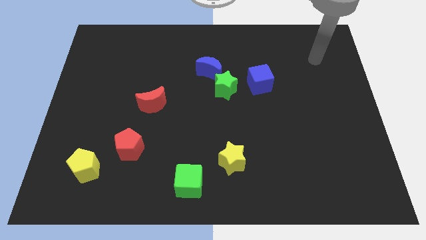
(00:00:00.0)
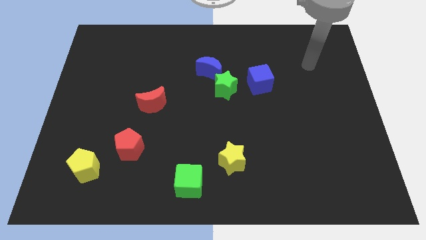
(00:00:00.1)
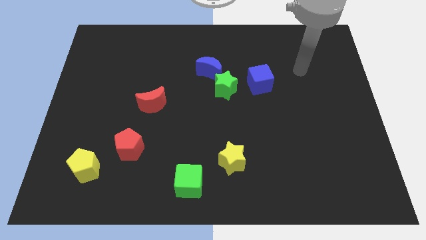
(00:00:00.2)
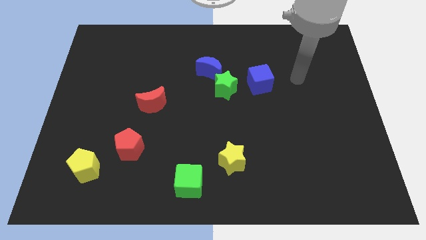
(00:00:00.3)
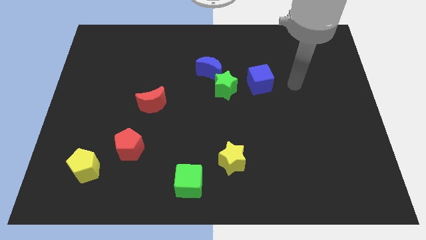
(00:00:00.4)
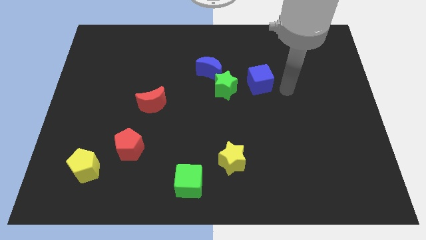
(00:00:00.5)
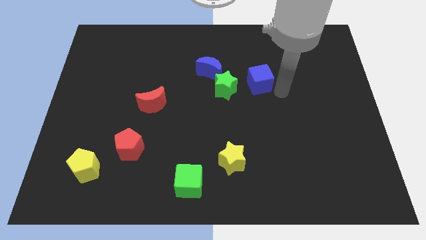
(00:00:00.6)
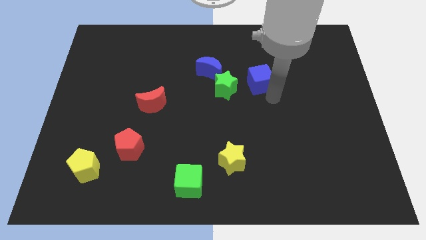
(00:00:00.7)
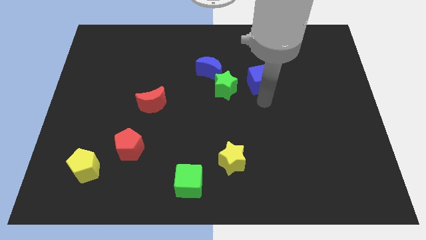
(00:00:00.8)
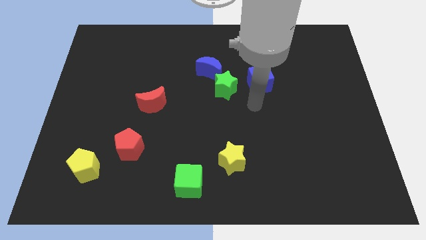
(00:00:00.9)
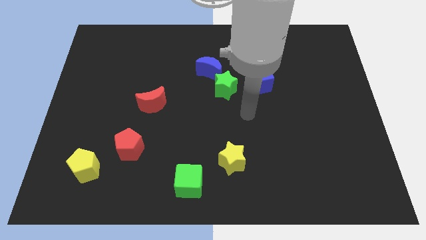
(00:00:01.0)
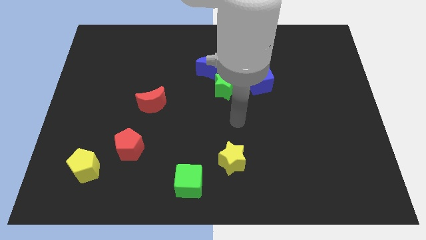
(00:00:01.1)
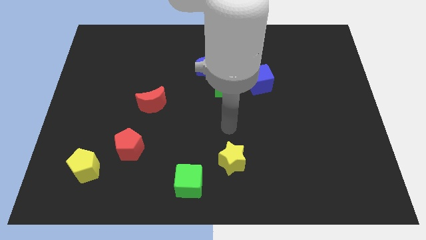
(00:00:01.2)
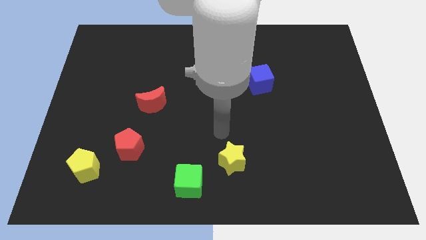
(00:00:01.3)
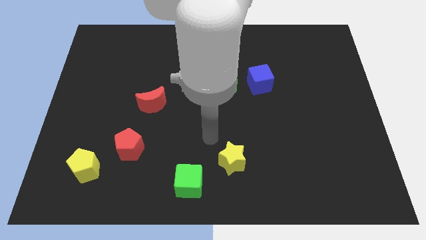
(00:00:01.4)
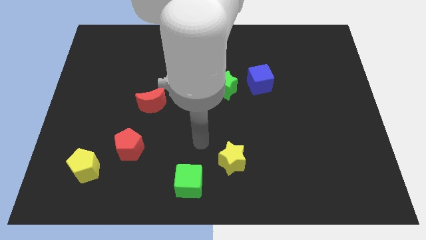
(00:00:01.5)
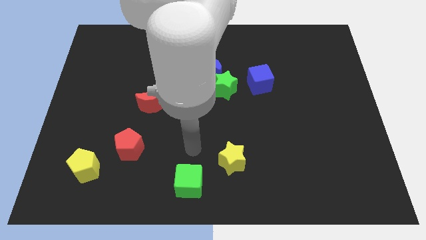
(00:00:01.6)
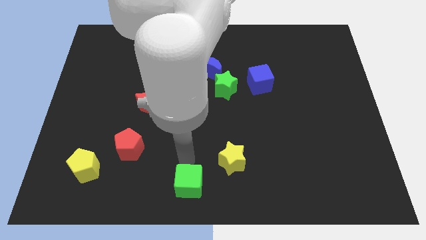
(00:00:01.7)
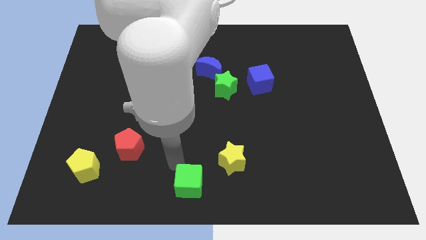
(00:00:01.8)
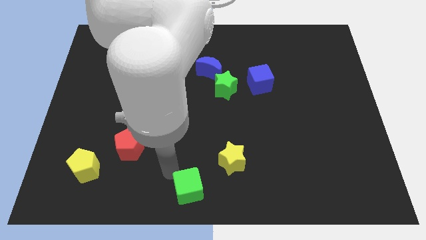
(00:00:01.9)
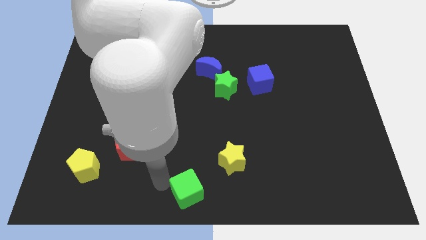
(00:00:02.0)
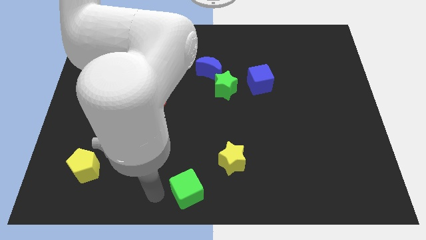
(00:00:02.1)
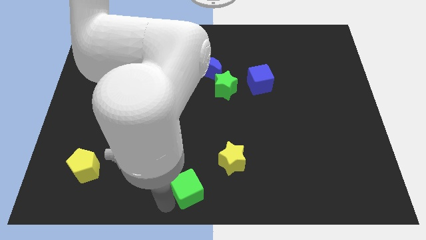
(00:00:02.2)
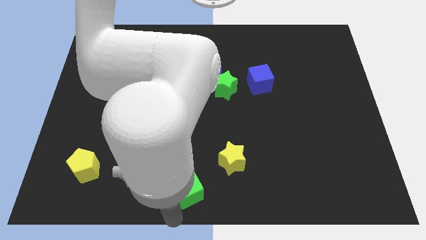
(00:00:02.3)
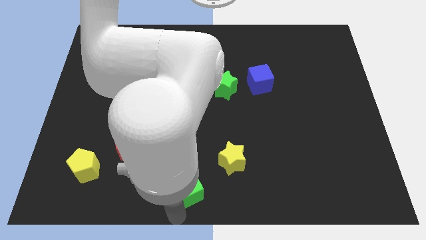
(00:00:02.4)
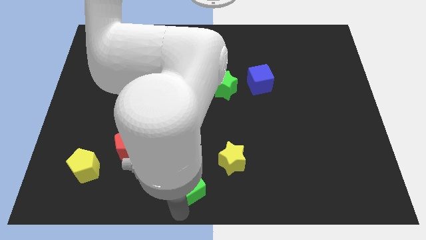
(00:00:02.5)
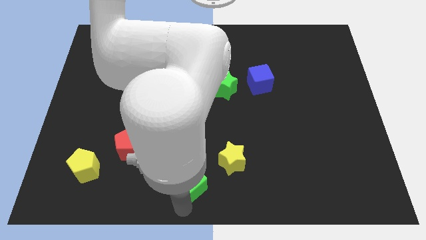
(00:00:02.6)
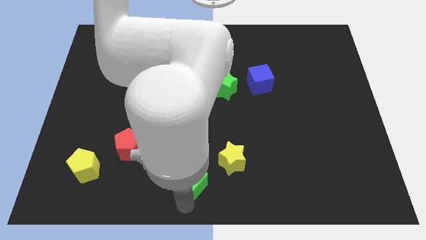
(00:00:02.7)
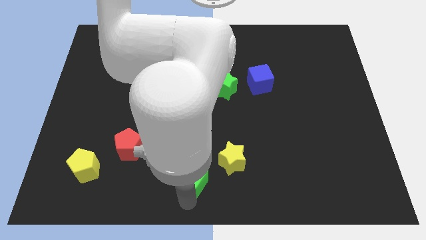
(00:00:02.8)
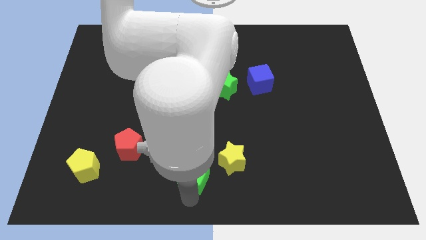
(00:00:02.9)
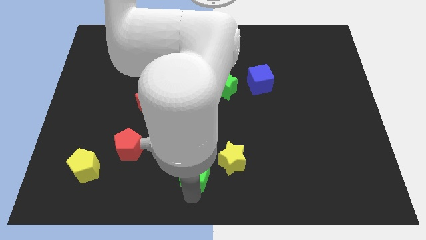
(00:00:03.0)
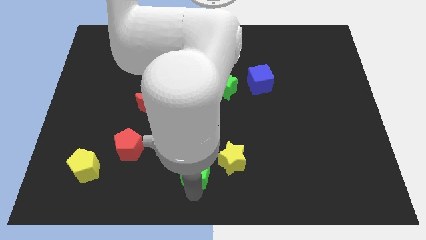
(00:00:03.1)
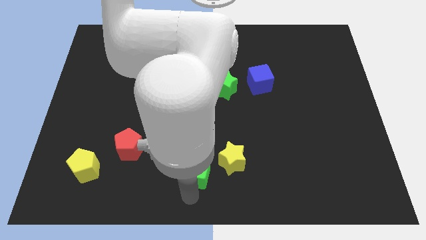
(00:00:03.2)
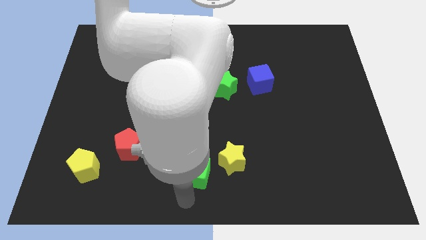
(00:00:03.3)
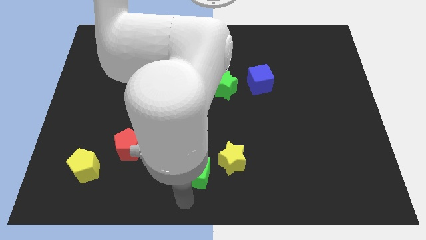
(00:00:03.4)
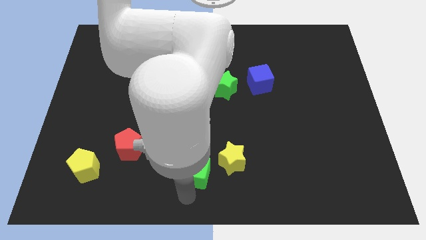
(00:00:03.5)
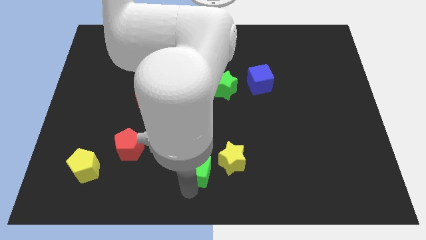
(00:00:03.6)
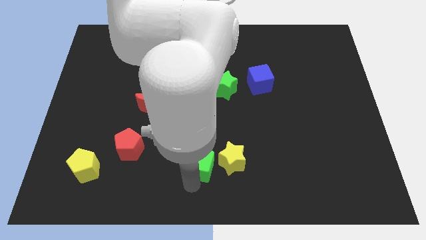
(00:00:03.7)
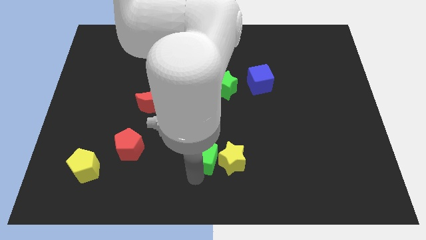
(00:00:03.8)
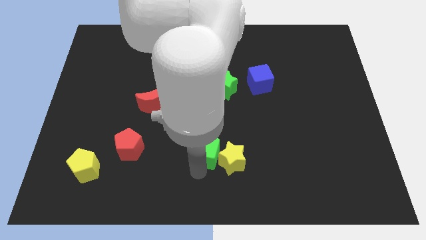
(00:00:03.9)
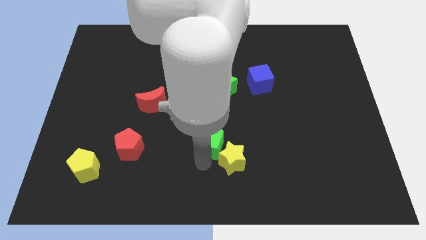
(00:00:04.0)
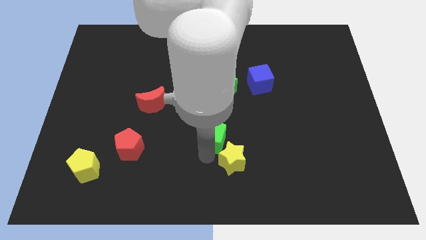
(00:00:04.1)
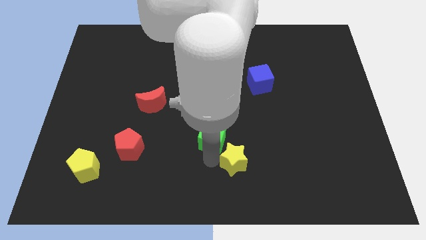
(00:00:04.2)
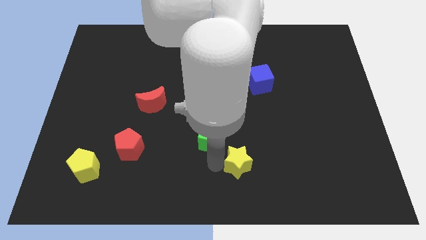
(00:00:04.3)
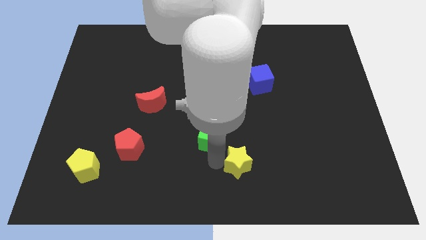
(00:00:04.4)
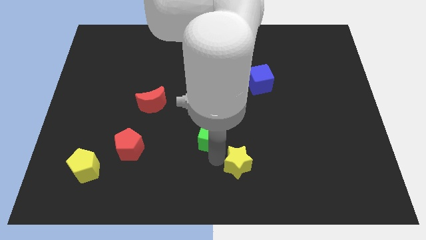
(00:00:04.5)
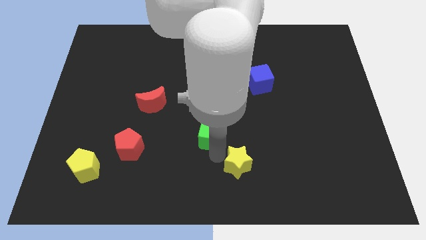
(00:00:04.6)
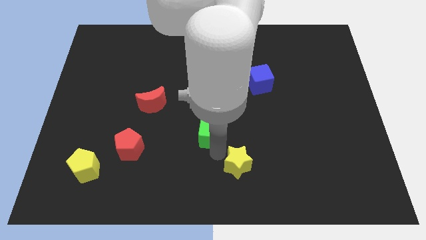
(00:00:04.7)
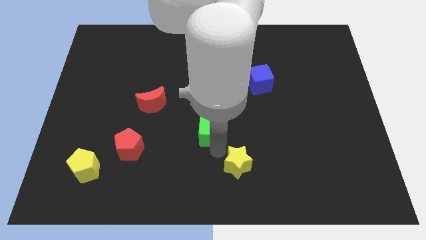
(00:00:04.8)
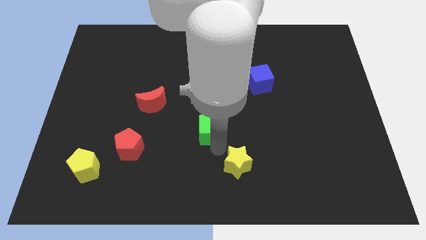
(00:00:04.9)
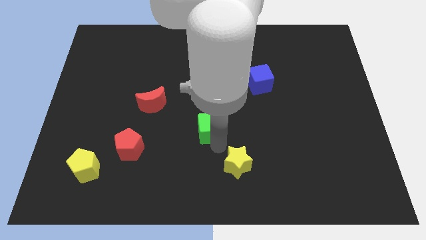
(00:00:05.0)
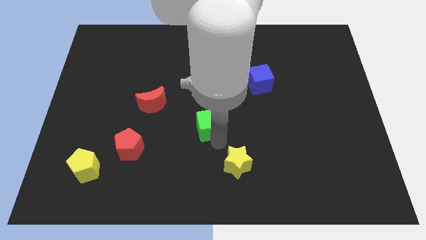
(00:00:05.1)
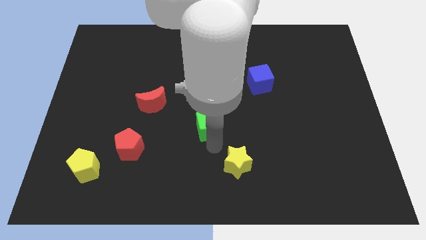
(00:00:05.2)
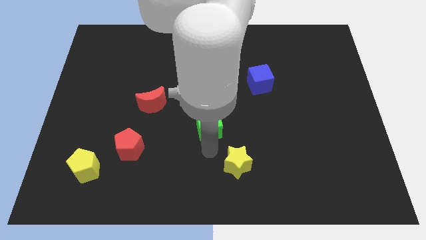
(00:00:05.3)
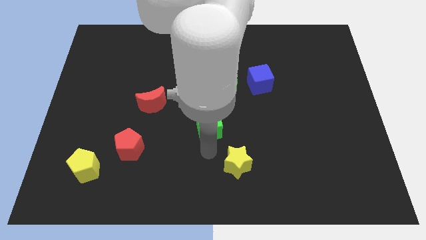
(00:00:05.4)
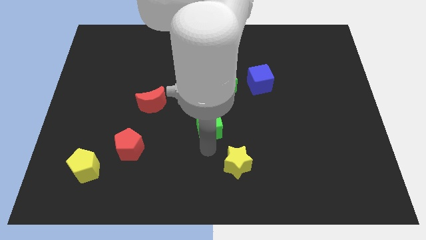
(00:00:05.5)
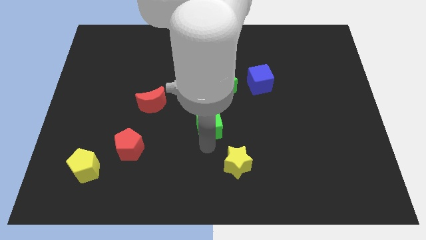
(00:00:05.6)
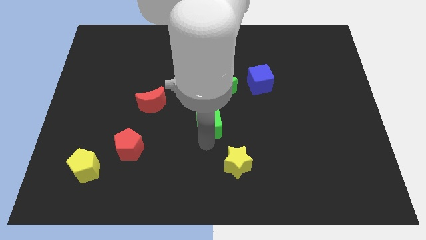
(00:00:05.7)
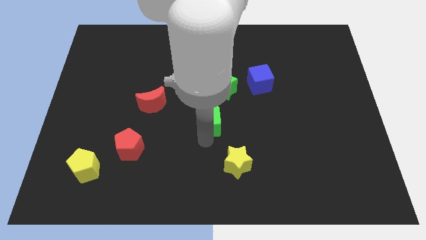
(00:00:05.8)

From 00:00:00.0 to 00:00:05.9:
slide the green cube below the blue moon

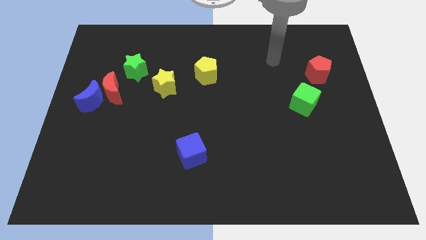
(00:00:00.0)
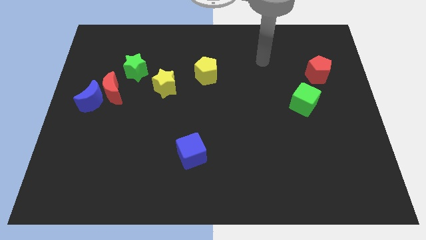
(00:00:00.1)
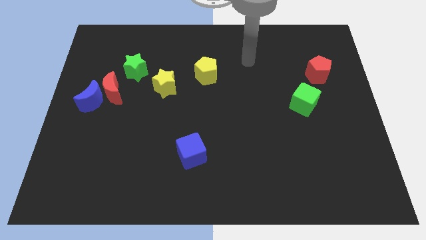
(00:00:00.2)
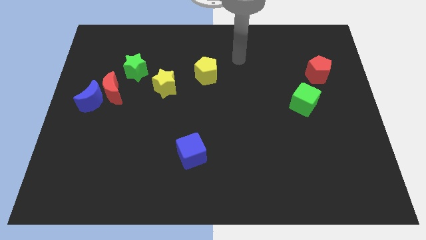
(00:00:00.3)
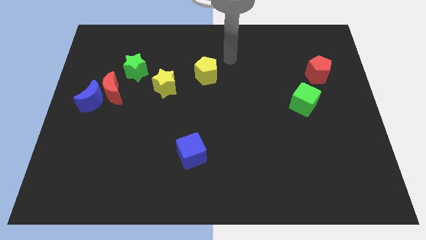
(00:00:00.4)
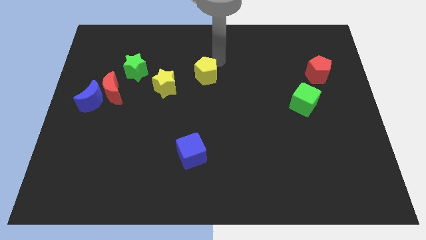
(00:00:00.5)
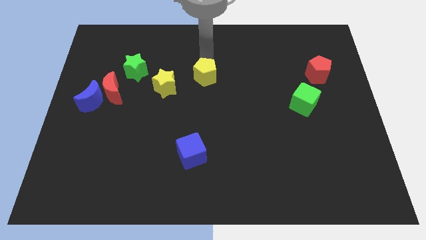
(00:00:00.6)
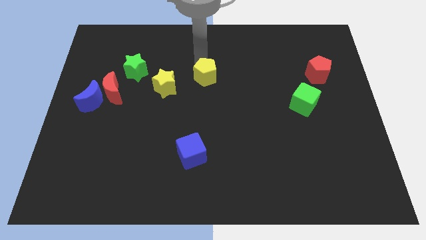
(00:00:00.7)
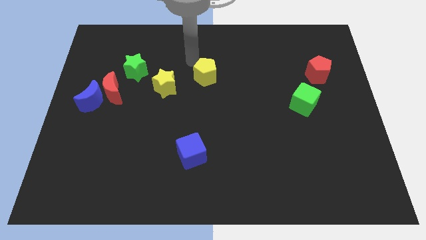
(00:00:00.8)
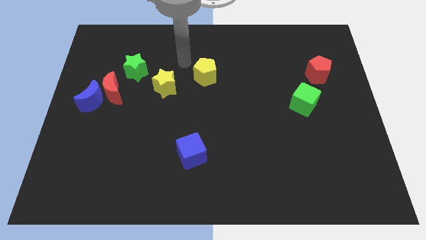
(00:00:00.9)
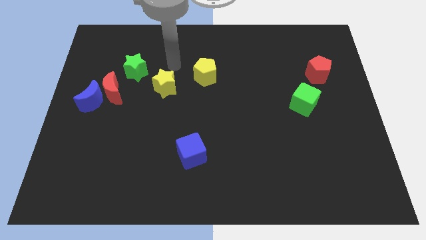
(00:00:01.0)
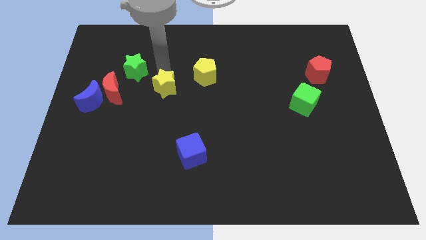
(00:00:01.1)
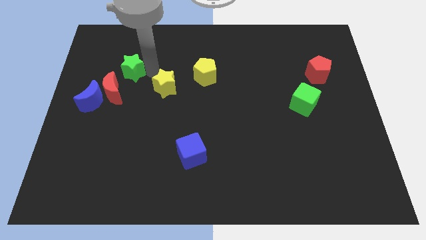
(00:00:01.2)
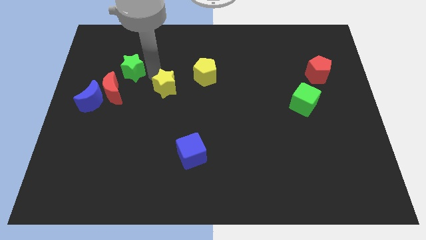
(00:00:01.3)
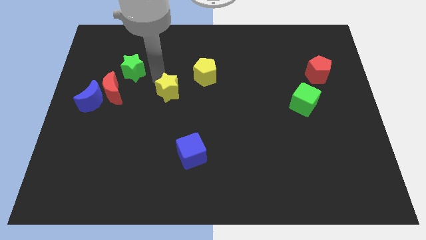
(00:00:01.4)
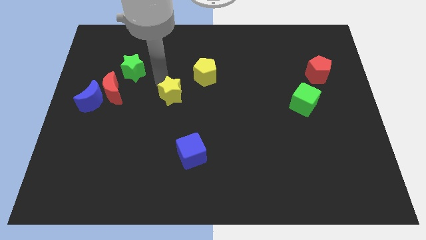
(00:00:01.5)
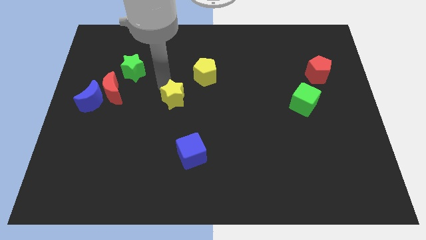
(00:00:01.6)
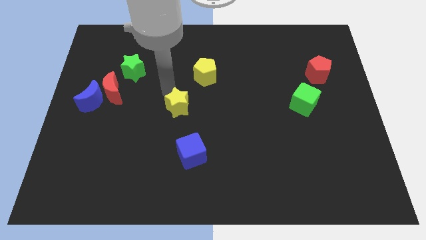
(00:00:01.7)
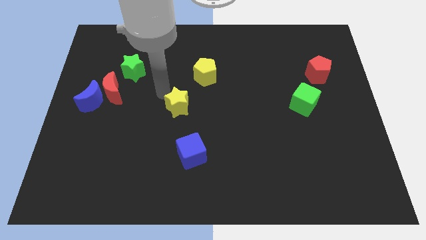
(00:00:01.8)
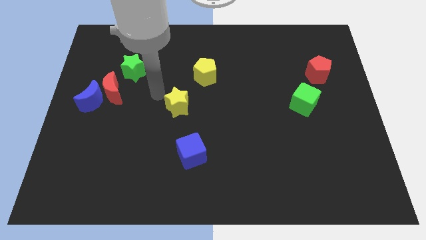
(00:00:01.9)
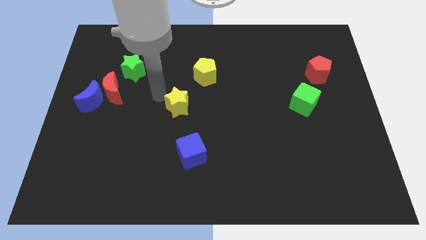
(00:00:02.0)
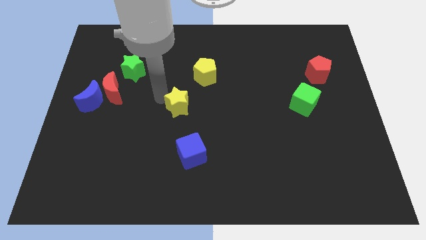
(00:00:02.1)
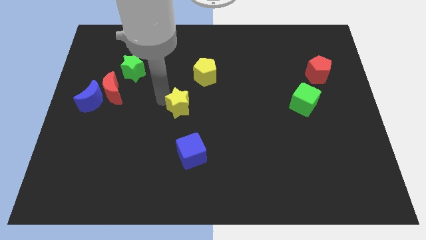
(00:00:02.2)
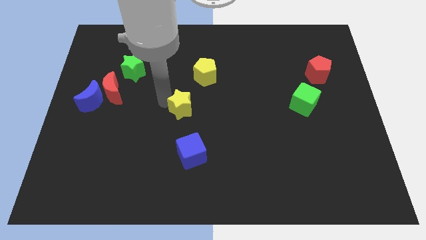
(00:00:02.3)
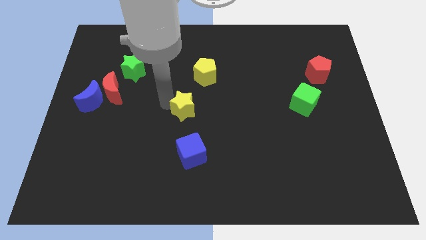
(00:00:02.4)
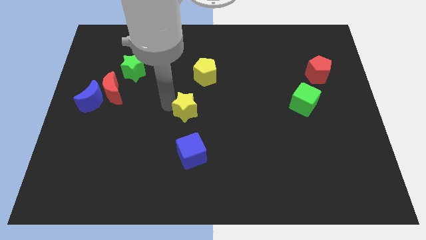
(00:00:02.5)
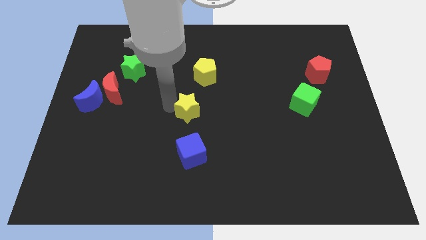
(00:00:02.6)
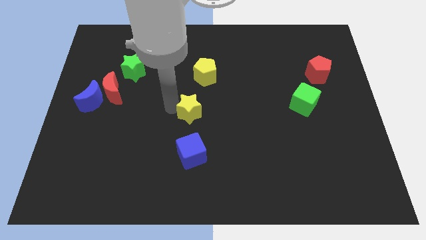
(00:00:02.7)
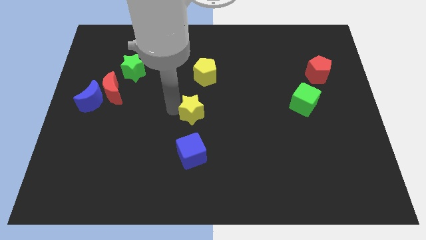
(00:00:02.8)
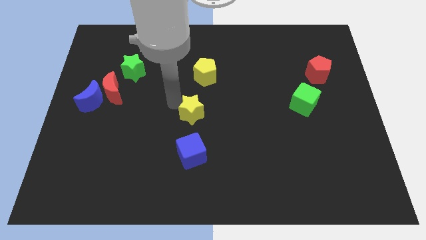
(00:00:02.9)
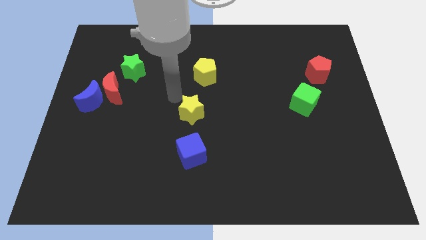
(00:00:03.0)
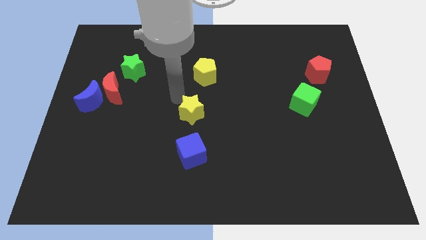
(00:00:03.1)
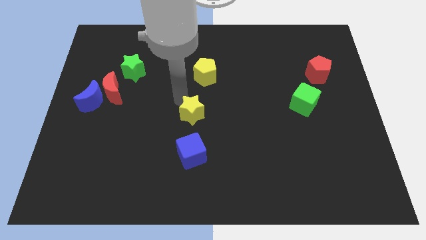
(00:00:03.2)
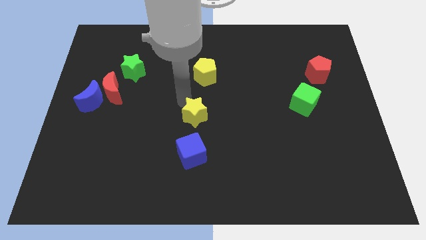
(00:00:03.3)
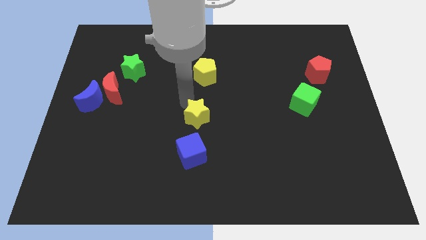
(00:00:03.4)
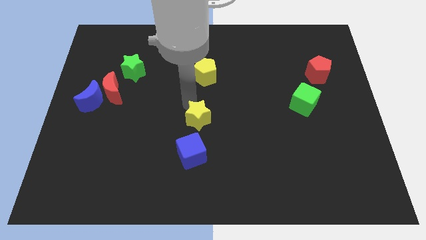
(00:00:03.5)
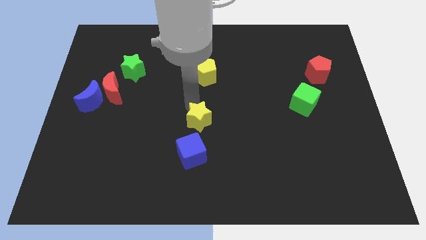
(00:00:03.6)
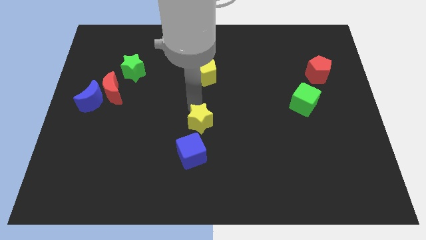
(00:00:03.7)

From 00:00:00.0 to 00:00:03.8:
move the yellow star to the top right side of the blue cube
